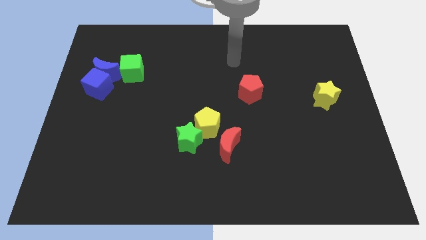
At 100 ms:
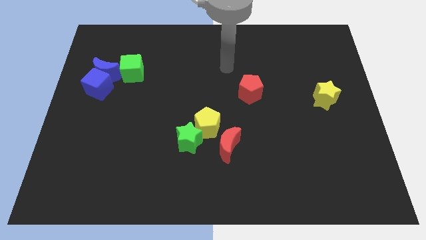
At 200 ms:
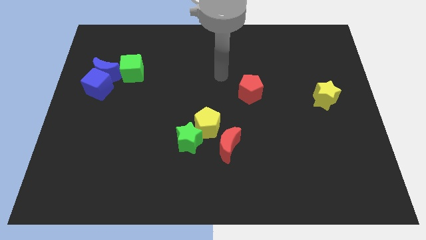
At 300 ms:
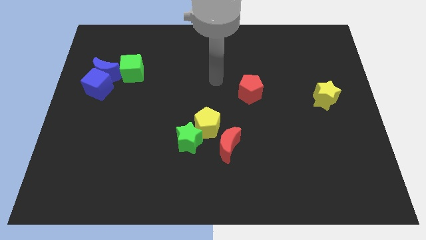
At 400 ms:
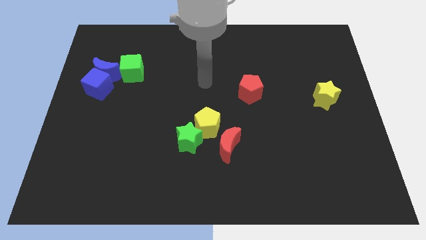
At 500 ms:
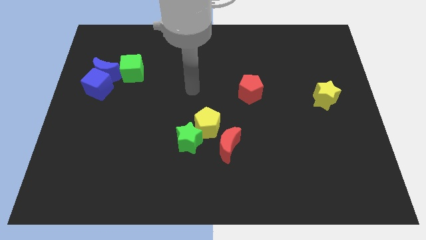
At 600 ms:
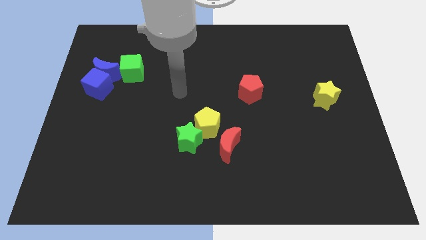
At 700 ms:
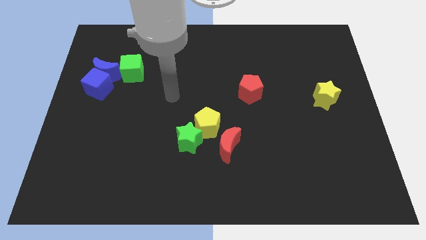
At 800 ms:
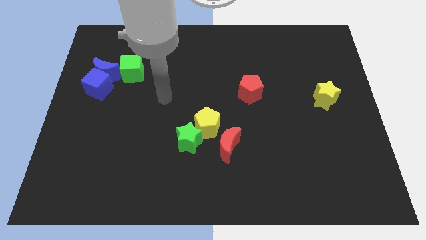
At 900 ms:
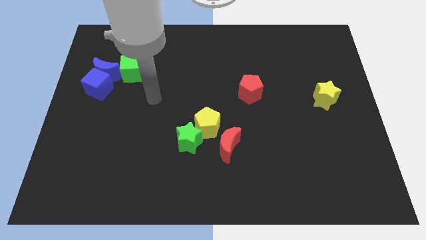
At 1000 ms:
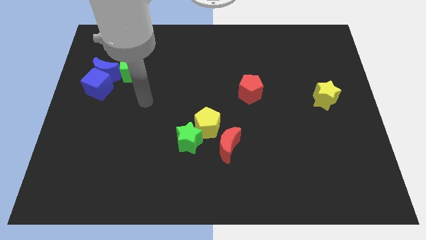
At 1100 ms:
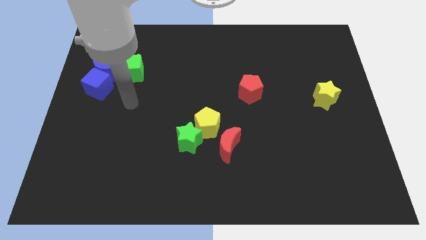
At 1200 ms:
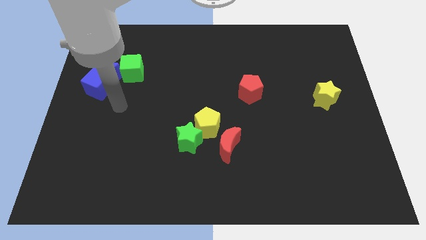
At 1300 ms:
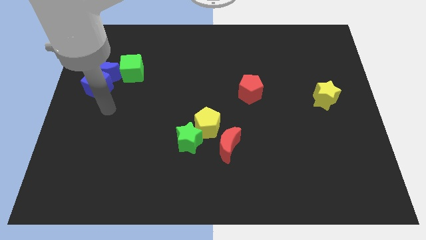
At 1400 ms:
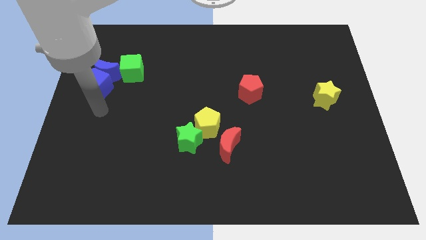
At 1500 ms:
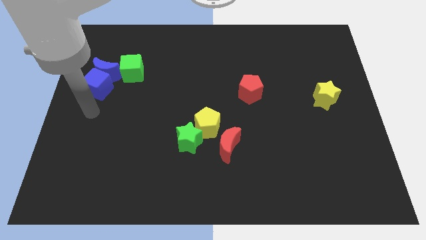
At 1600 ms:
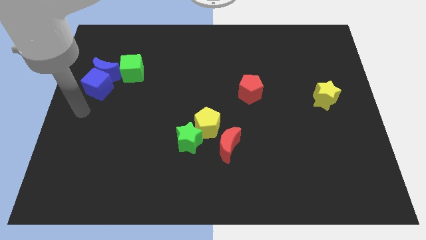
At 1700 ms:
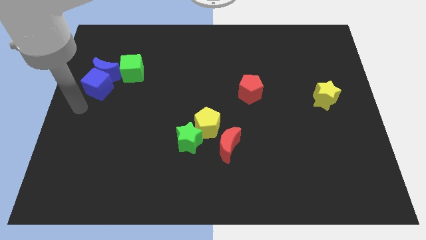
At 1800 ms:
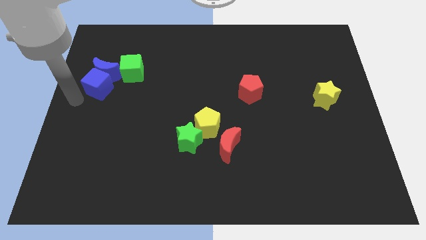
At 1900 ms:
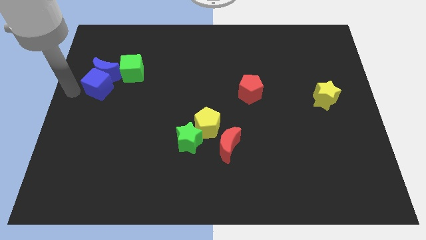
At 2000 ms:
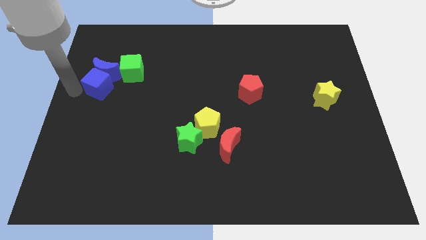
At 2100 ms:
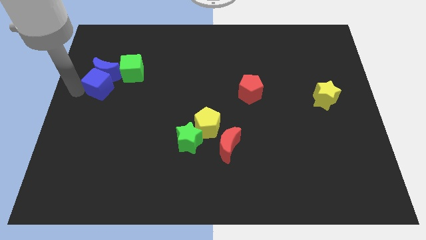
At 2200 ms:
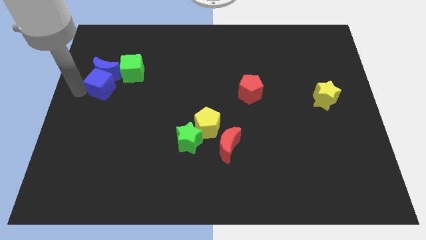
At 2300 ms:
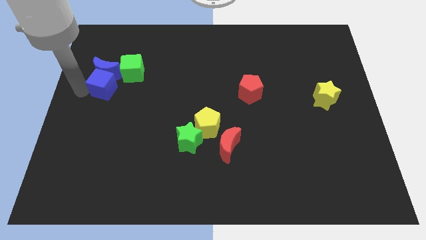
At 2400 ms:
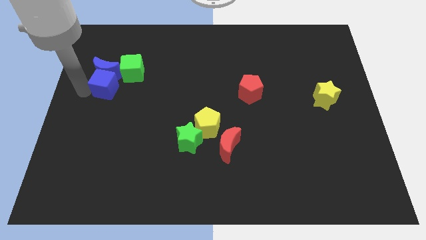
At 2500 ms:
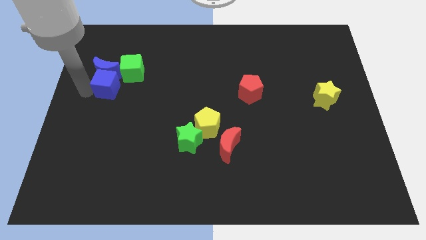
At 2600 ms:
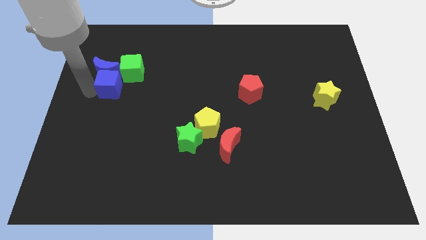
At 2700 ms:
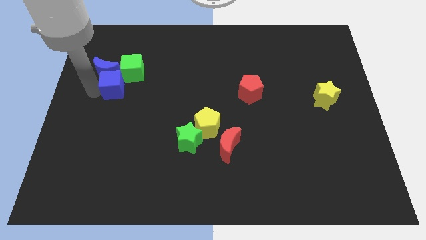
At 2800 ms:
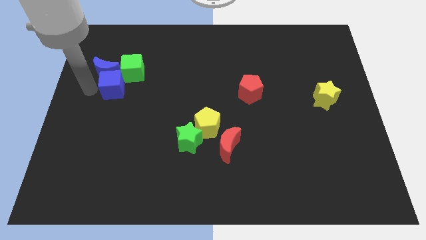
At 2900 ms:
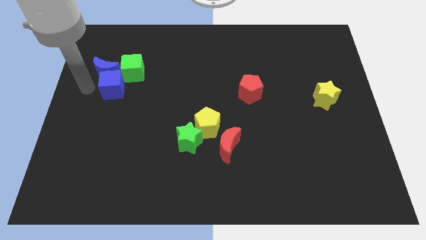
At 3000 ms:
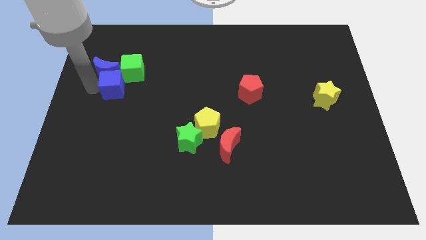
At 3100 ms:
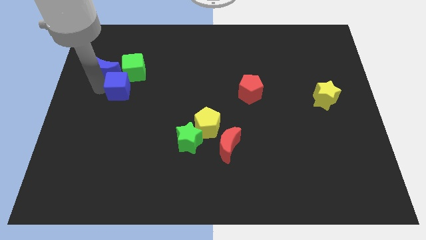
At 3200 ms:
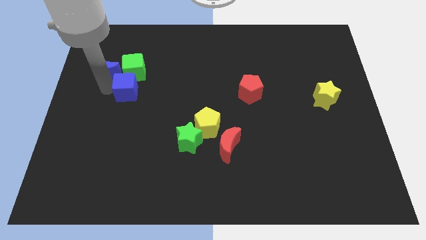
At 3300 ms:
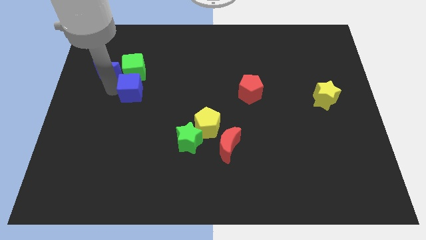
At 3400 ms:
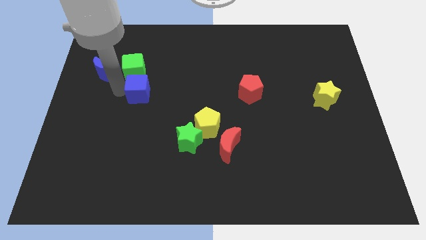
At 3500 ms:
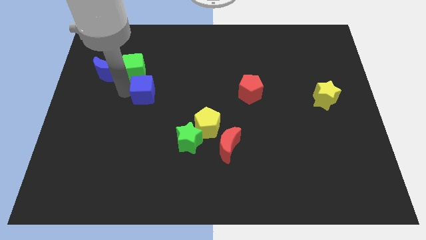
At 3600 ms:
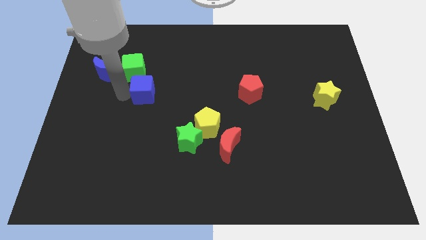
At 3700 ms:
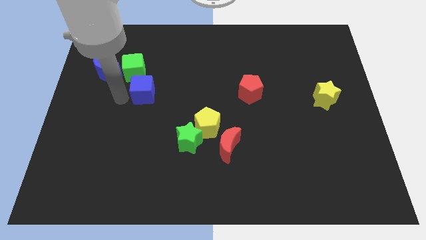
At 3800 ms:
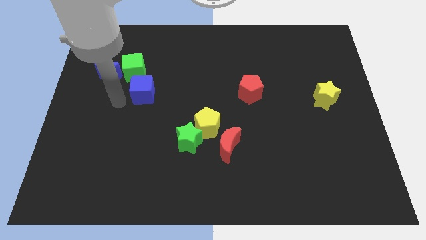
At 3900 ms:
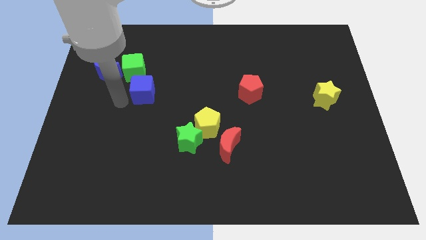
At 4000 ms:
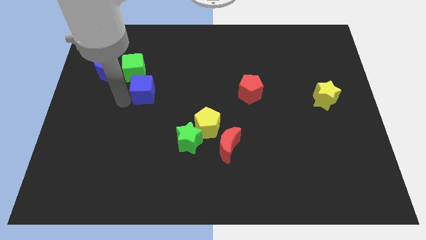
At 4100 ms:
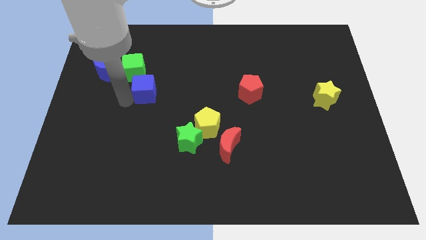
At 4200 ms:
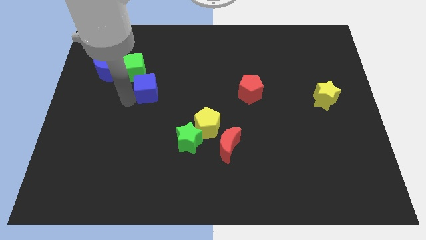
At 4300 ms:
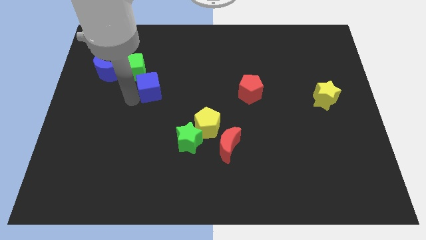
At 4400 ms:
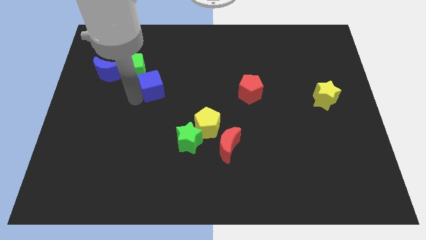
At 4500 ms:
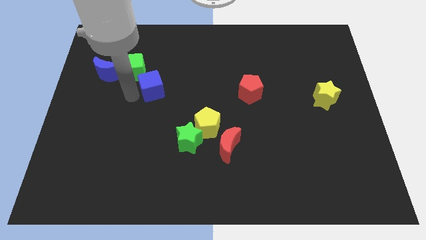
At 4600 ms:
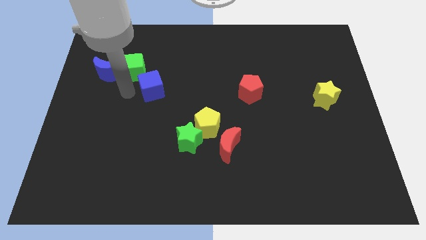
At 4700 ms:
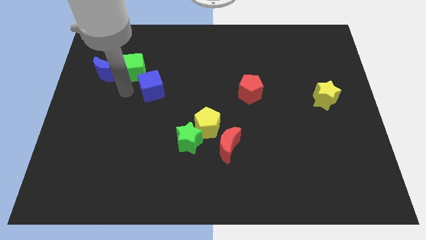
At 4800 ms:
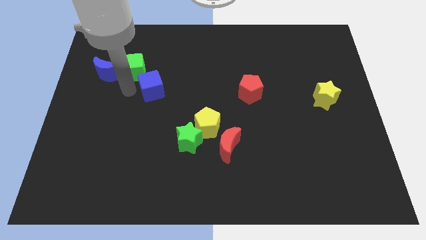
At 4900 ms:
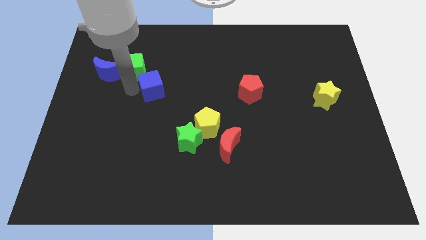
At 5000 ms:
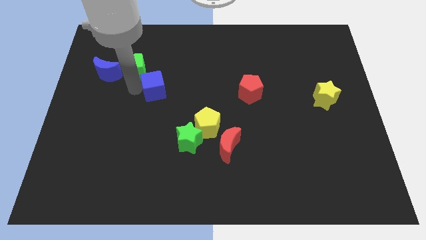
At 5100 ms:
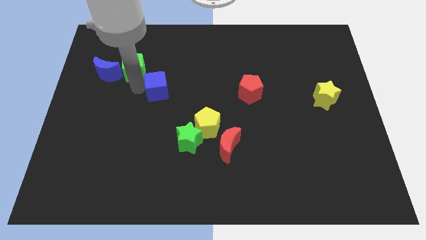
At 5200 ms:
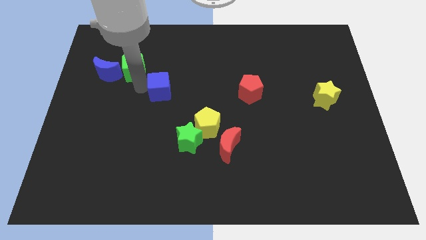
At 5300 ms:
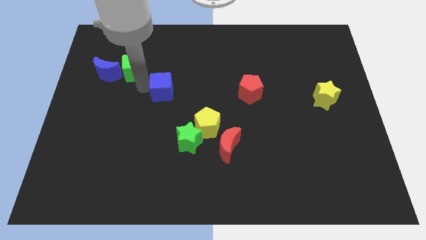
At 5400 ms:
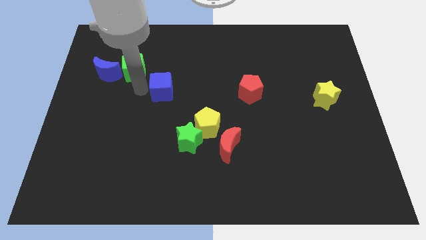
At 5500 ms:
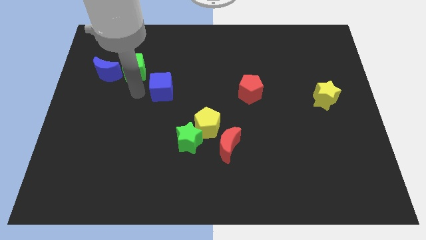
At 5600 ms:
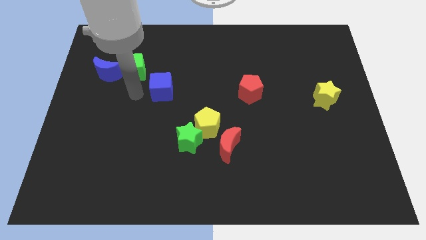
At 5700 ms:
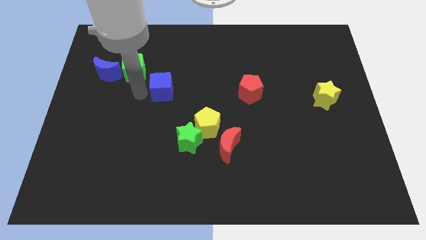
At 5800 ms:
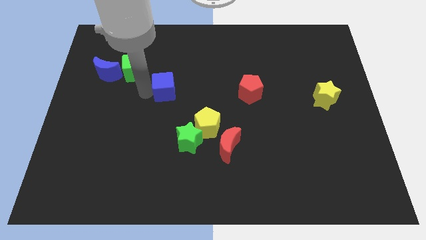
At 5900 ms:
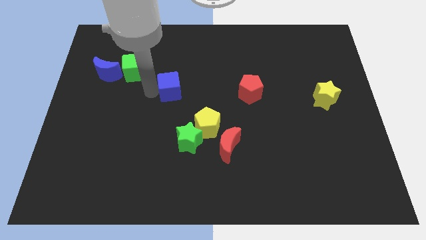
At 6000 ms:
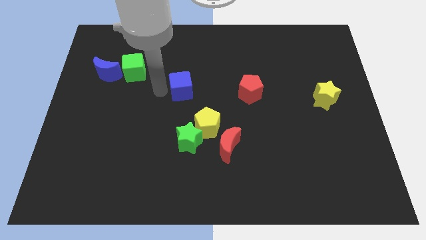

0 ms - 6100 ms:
move the blue cube right

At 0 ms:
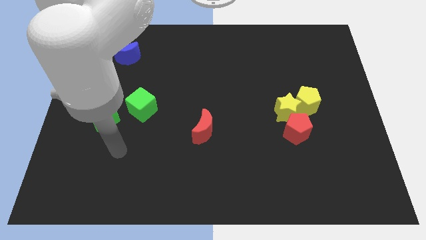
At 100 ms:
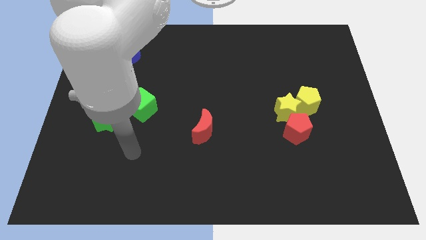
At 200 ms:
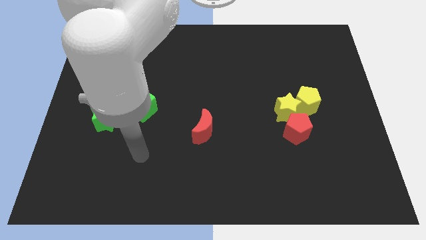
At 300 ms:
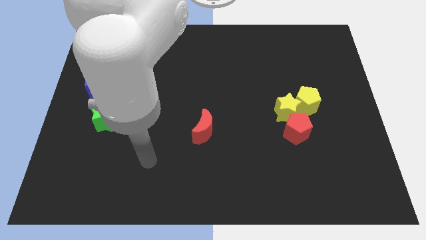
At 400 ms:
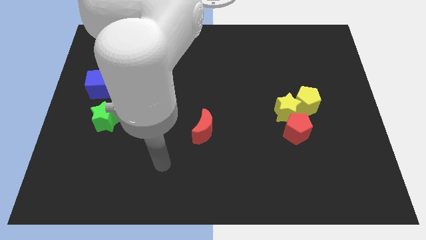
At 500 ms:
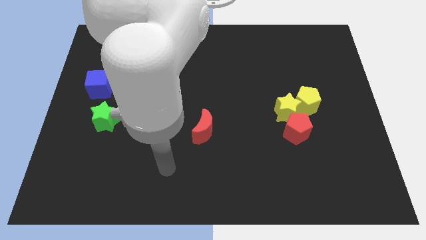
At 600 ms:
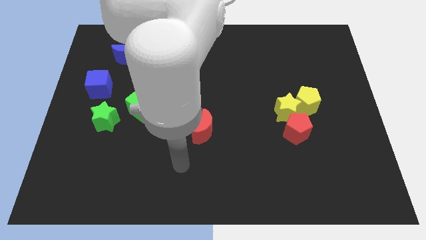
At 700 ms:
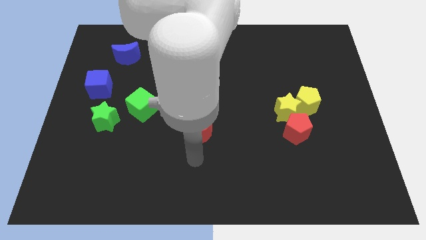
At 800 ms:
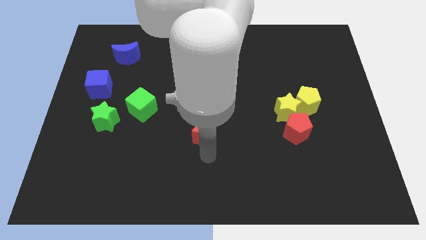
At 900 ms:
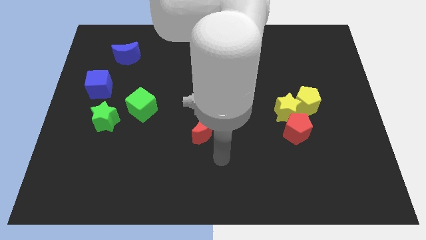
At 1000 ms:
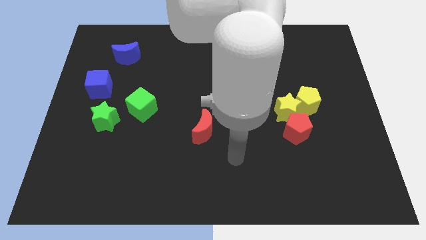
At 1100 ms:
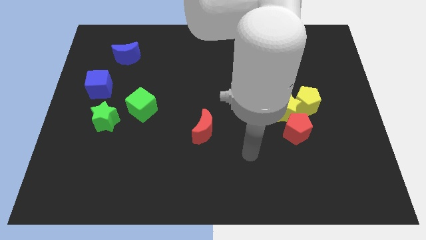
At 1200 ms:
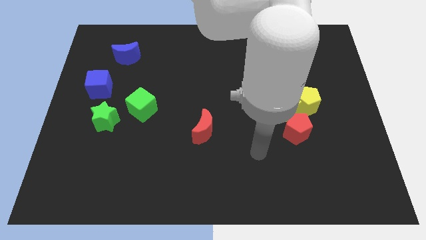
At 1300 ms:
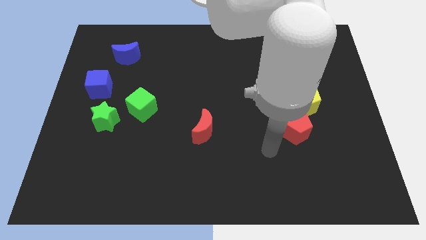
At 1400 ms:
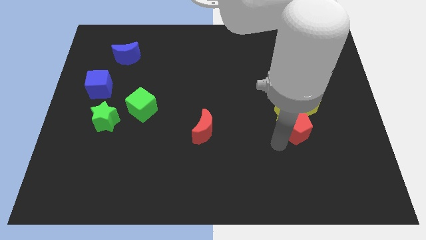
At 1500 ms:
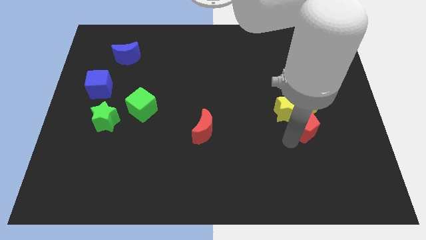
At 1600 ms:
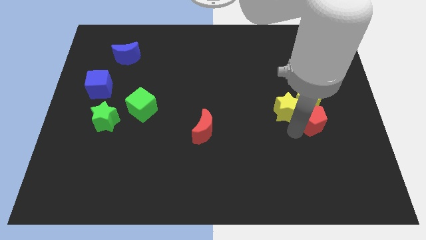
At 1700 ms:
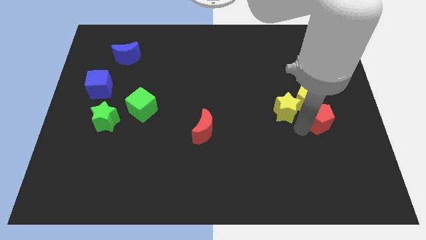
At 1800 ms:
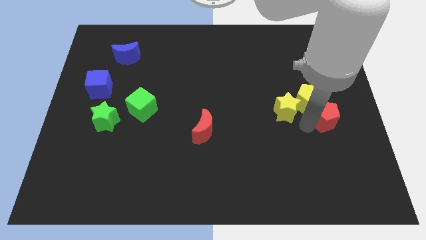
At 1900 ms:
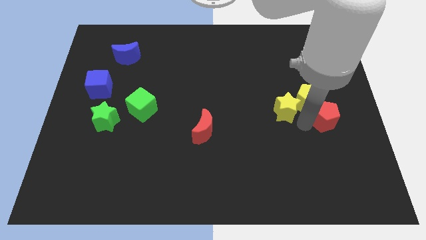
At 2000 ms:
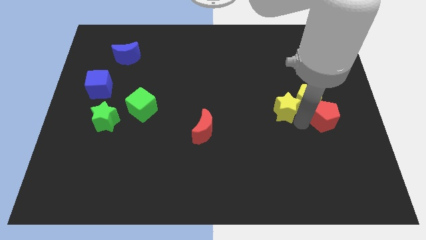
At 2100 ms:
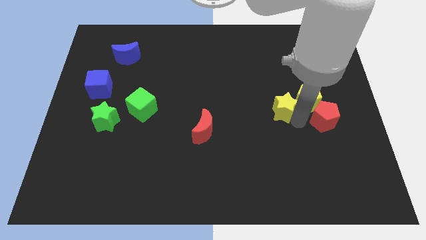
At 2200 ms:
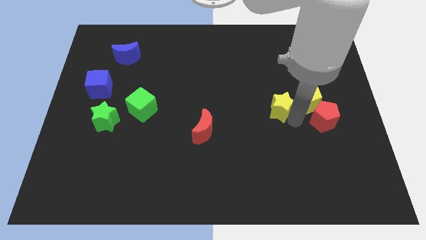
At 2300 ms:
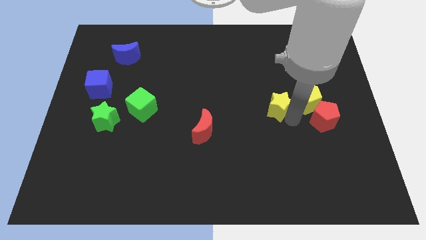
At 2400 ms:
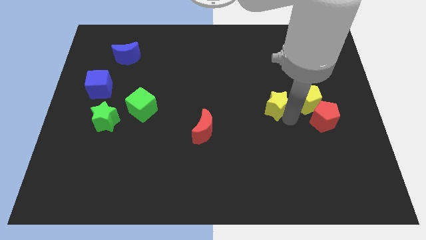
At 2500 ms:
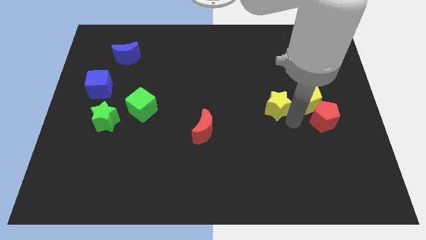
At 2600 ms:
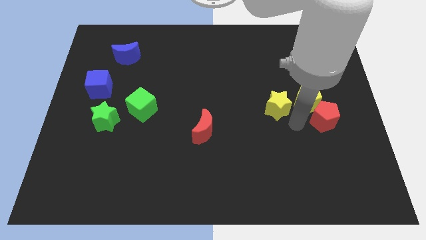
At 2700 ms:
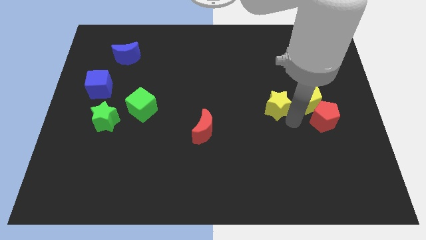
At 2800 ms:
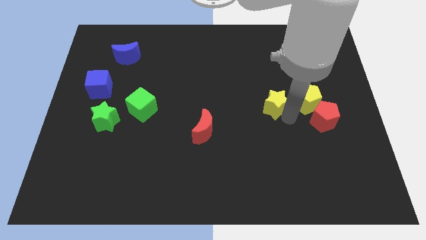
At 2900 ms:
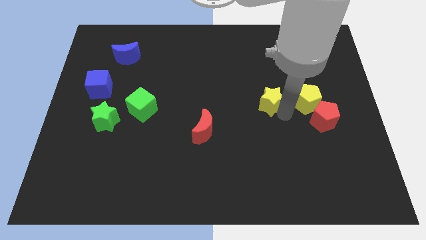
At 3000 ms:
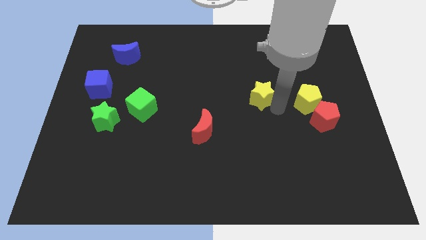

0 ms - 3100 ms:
move the yellow star upwards and then to the left a little
